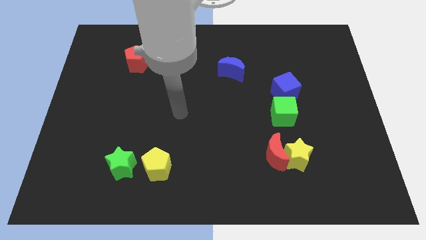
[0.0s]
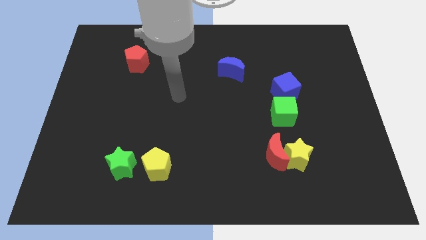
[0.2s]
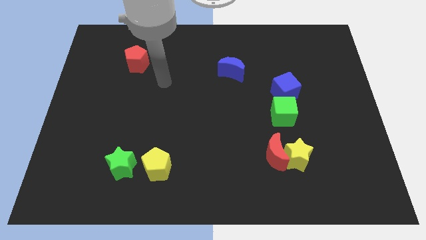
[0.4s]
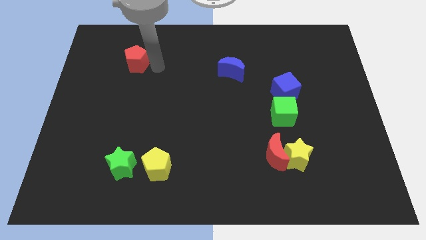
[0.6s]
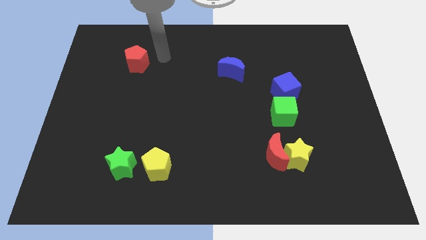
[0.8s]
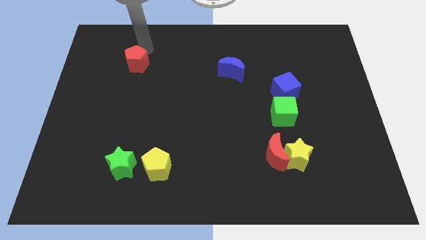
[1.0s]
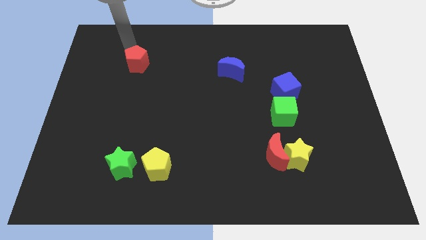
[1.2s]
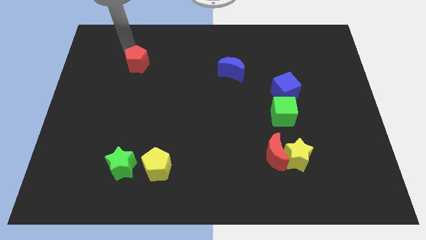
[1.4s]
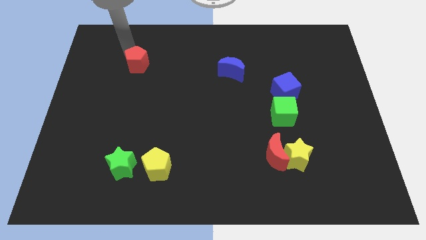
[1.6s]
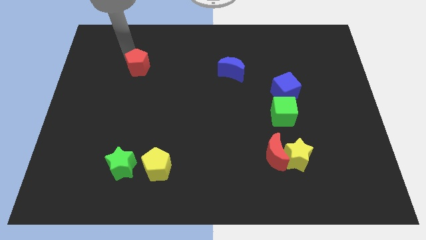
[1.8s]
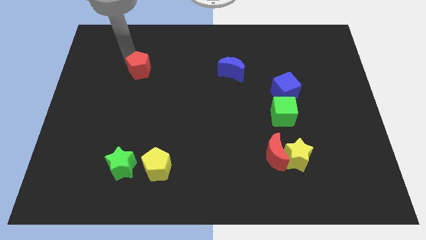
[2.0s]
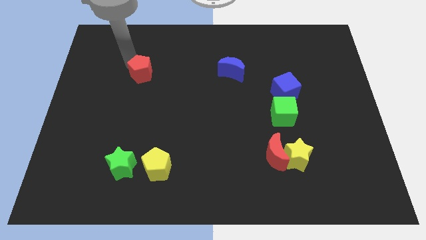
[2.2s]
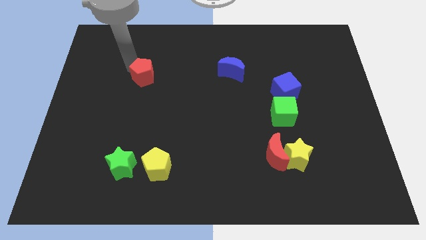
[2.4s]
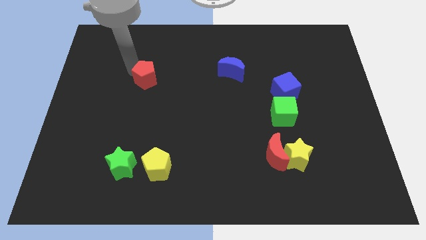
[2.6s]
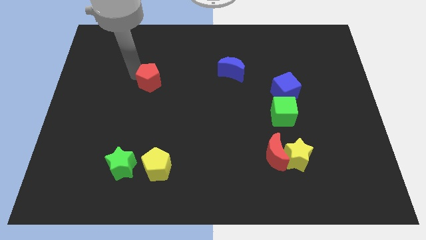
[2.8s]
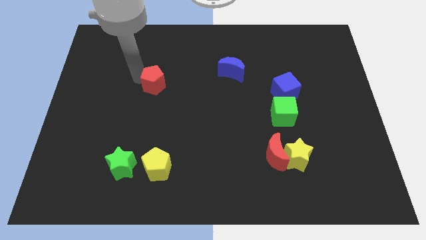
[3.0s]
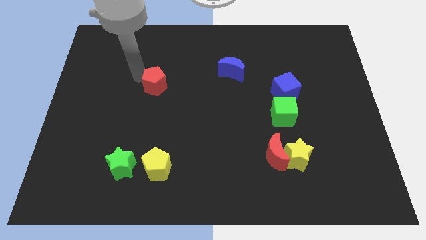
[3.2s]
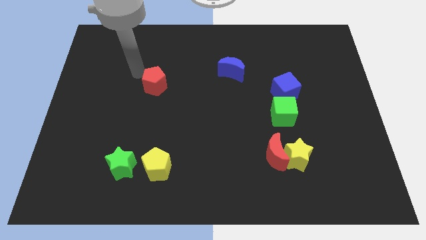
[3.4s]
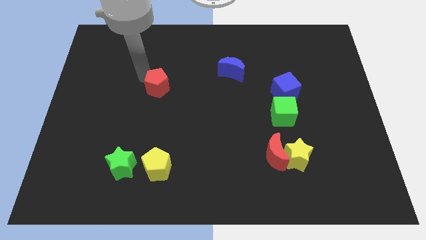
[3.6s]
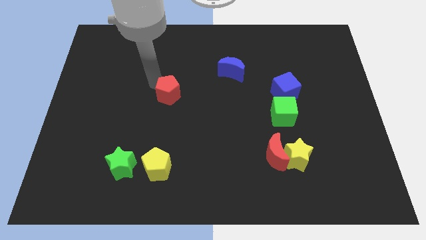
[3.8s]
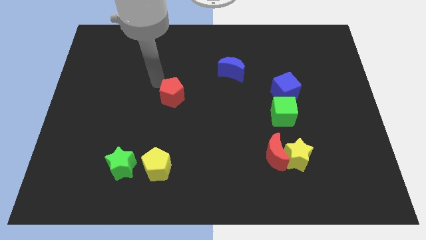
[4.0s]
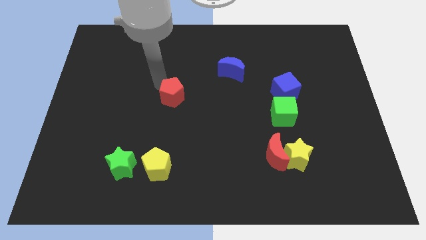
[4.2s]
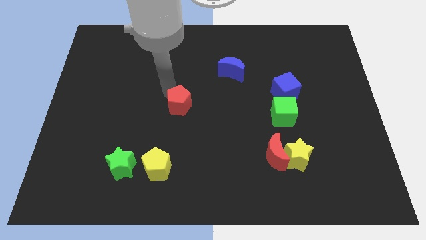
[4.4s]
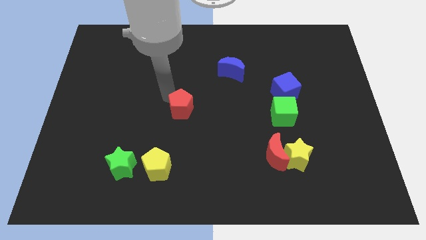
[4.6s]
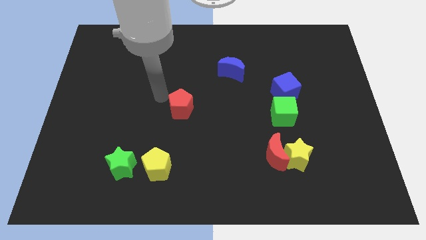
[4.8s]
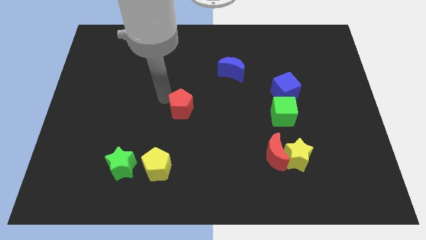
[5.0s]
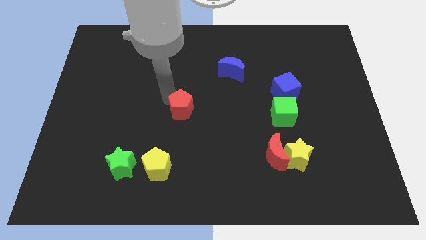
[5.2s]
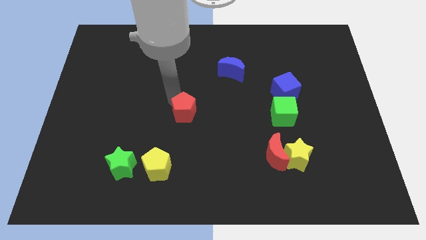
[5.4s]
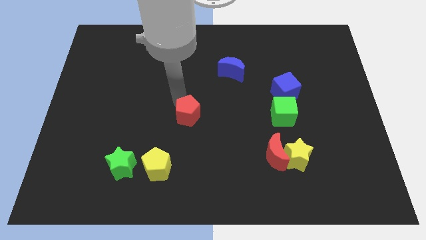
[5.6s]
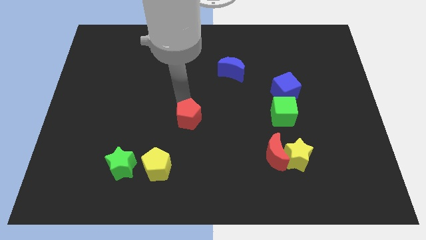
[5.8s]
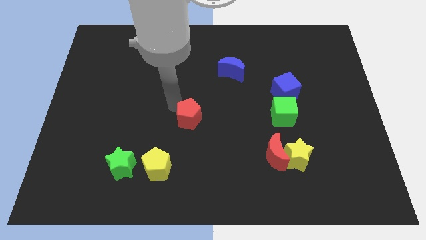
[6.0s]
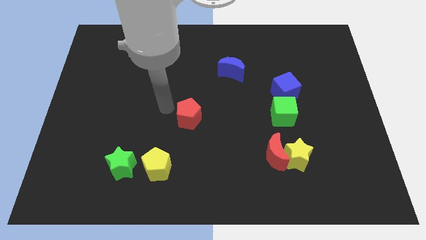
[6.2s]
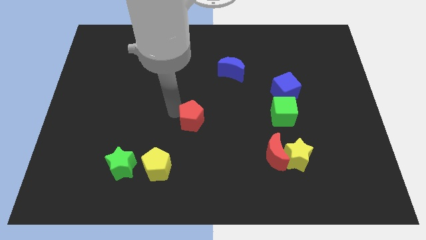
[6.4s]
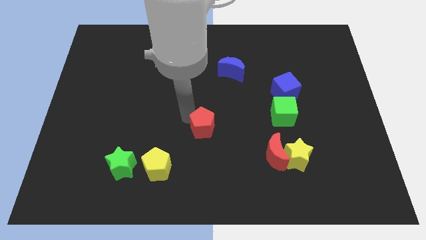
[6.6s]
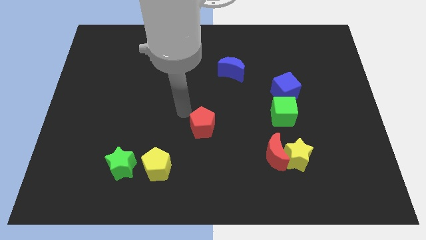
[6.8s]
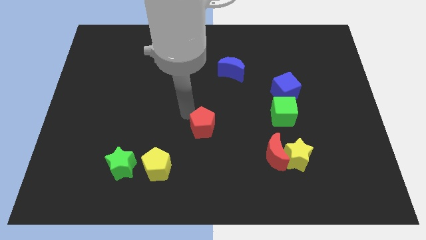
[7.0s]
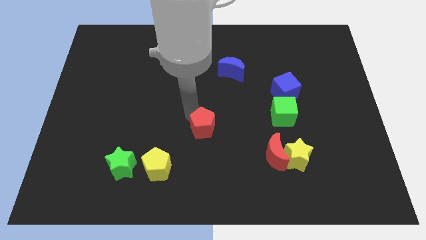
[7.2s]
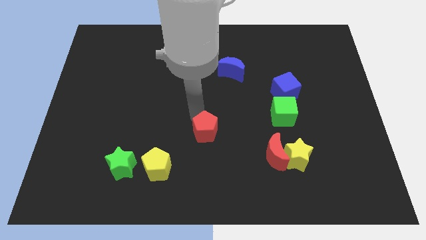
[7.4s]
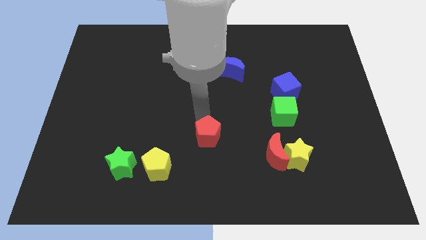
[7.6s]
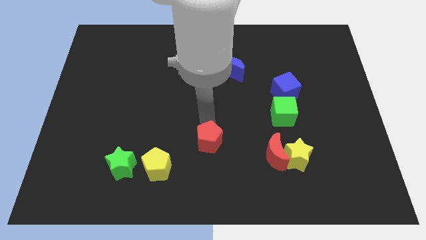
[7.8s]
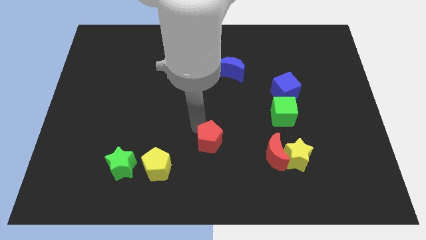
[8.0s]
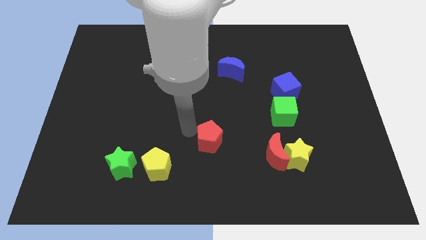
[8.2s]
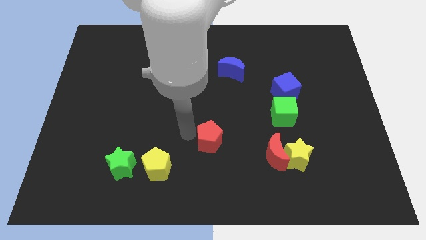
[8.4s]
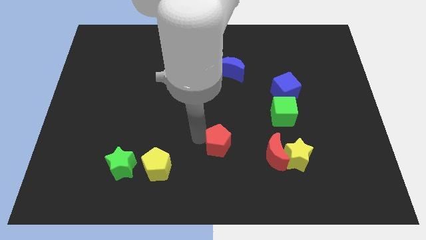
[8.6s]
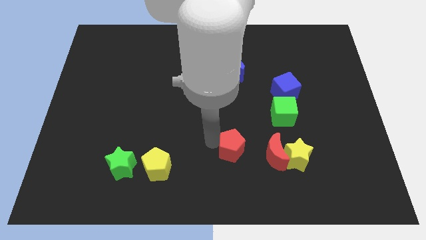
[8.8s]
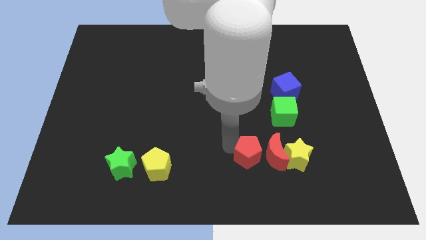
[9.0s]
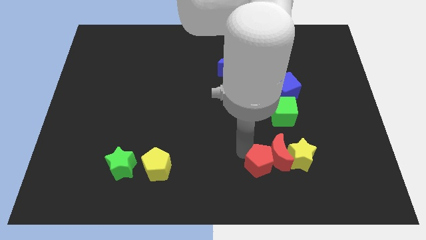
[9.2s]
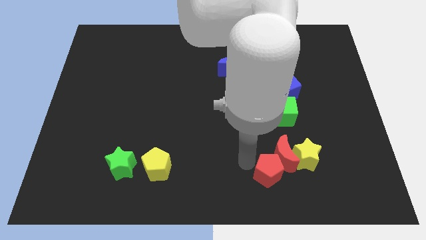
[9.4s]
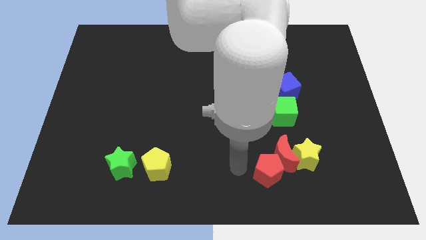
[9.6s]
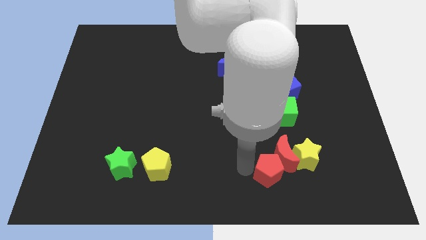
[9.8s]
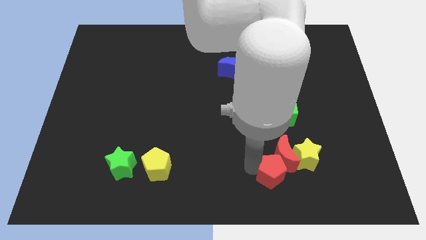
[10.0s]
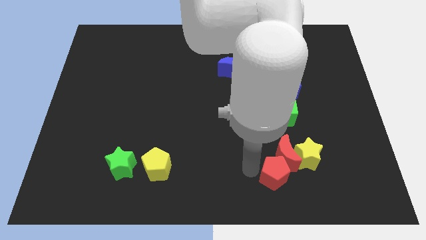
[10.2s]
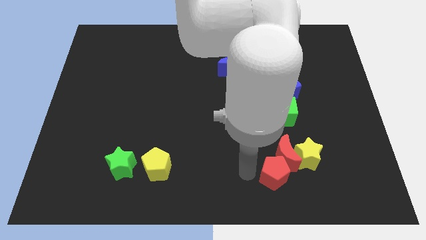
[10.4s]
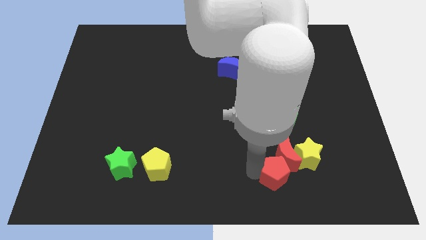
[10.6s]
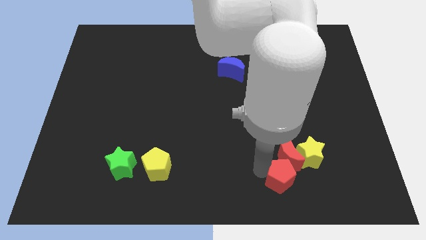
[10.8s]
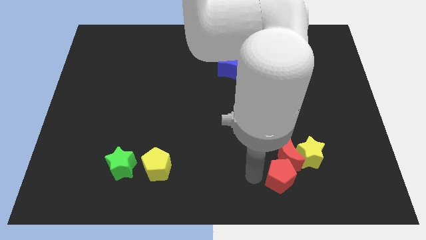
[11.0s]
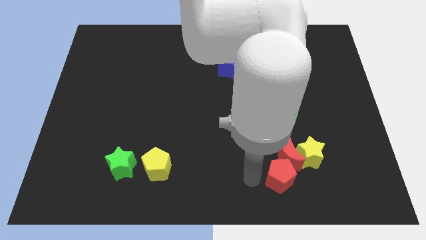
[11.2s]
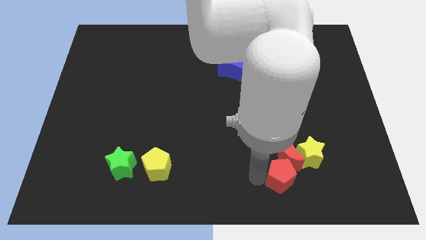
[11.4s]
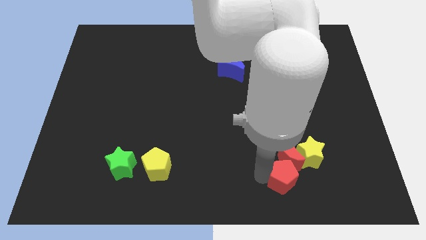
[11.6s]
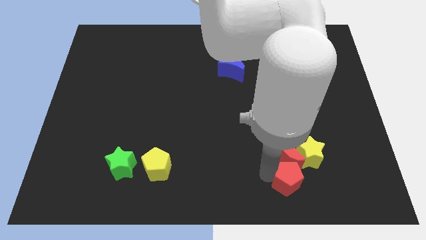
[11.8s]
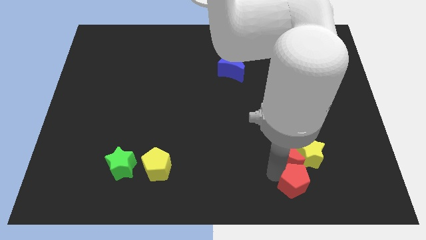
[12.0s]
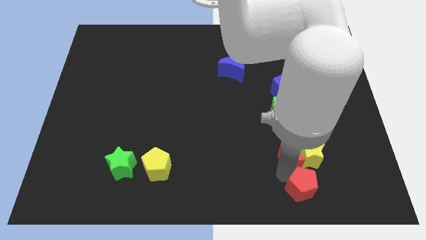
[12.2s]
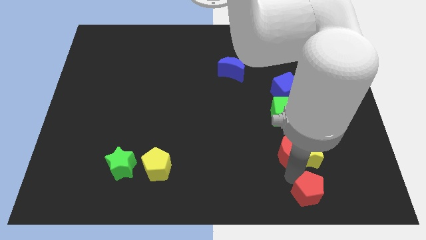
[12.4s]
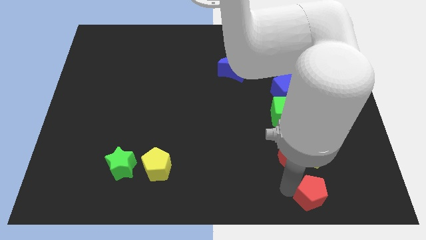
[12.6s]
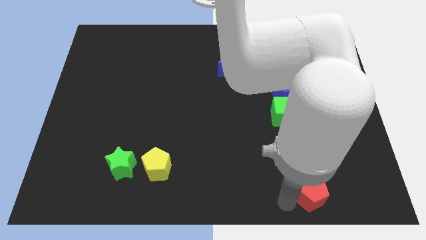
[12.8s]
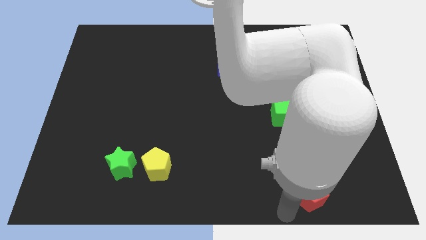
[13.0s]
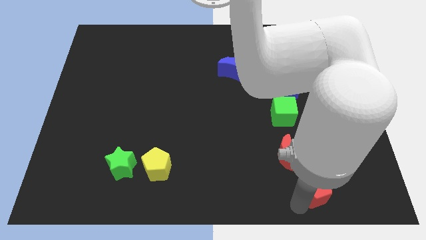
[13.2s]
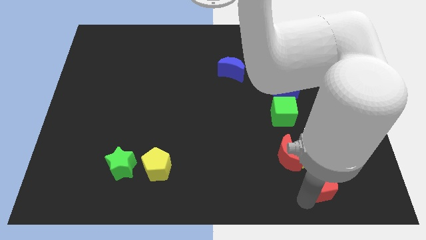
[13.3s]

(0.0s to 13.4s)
slide the red pentagon to the bottom right of the yellow star
